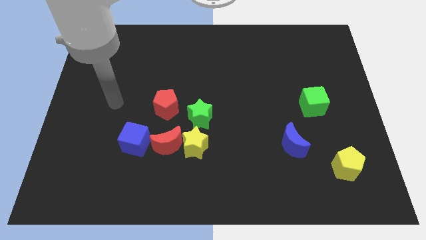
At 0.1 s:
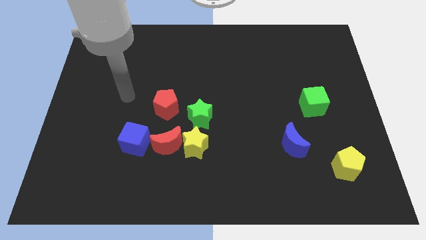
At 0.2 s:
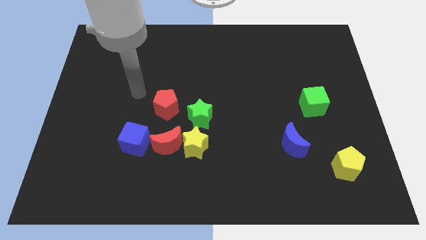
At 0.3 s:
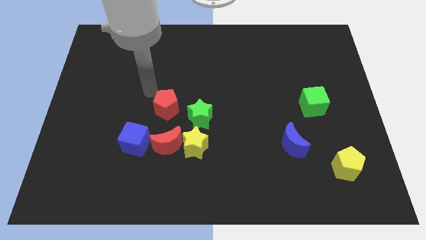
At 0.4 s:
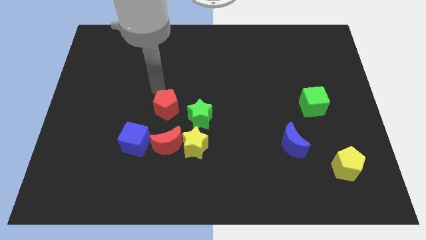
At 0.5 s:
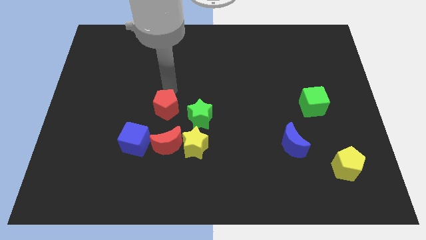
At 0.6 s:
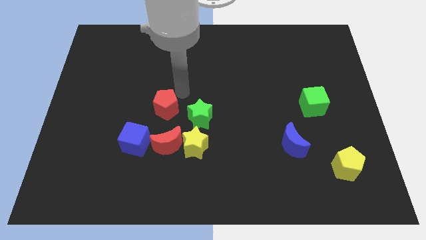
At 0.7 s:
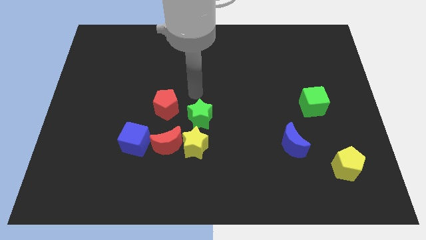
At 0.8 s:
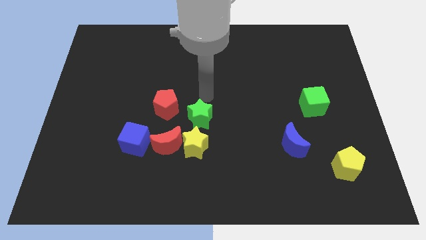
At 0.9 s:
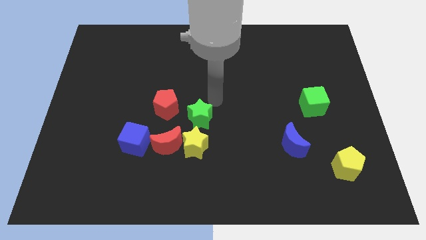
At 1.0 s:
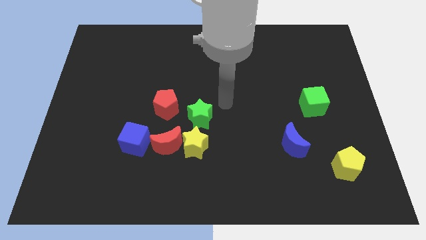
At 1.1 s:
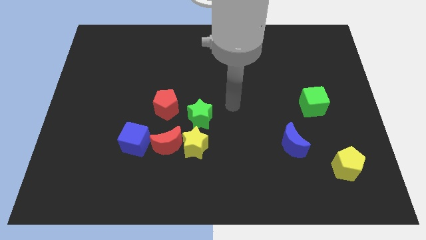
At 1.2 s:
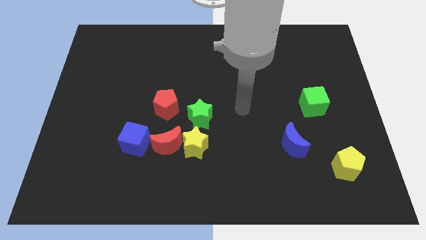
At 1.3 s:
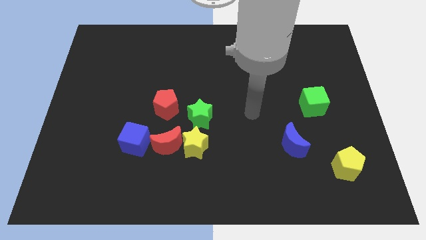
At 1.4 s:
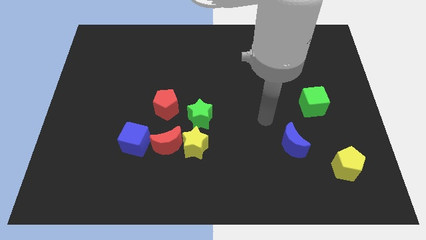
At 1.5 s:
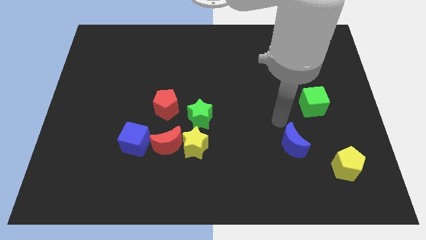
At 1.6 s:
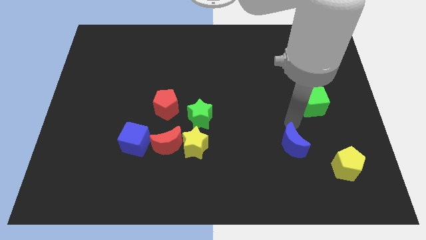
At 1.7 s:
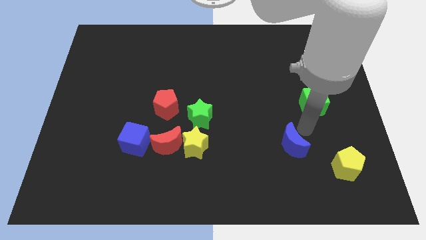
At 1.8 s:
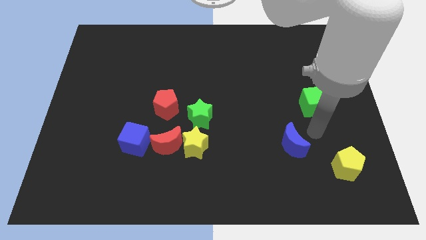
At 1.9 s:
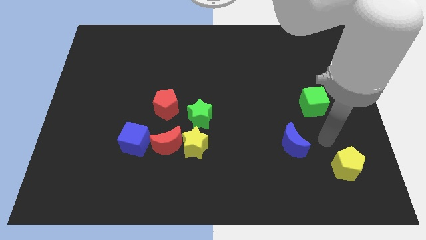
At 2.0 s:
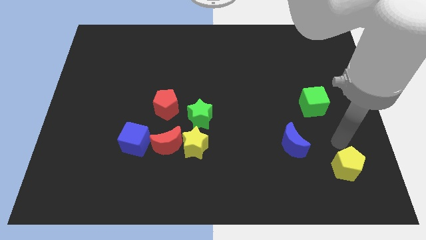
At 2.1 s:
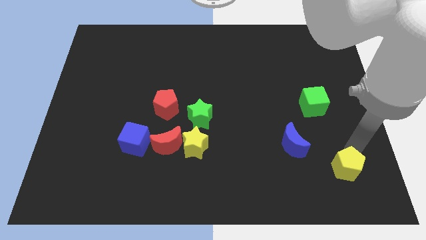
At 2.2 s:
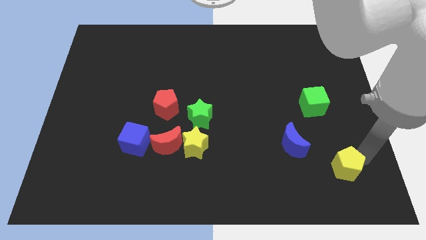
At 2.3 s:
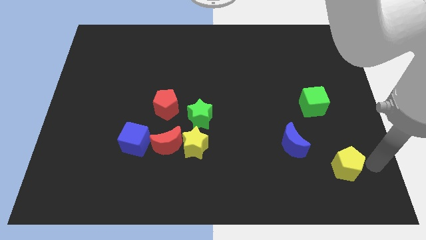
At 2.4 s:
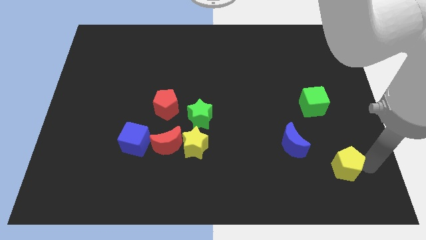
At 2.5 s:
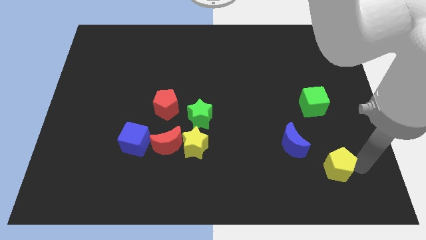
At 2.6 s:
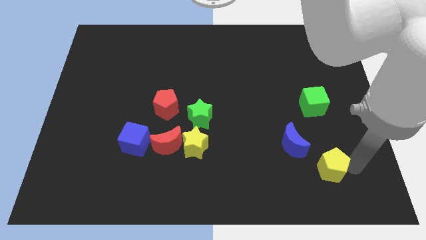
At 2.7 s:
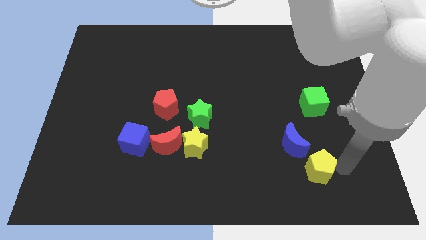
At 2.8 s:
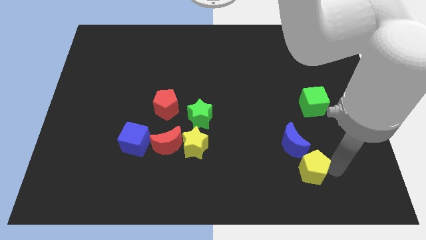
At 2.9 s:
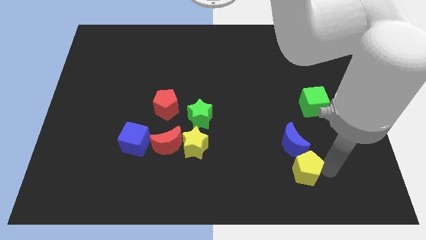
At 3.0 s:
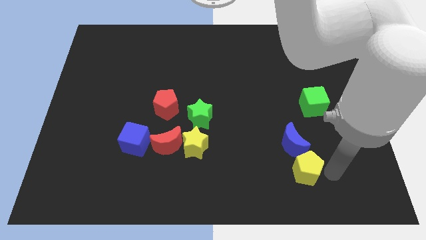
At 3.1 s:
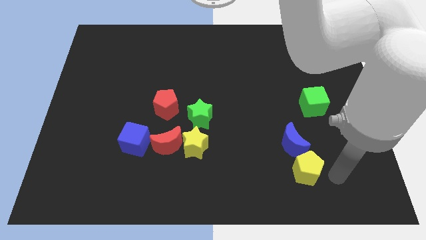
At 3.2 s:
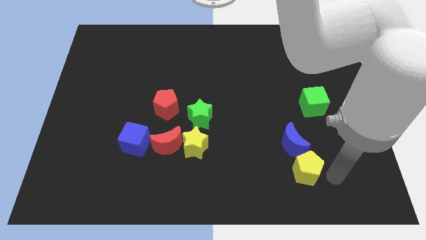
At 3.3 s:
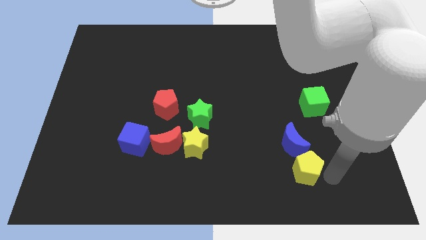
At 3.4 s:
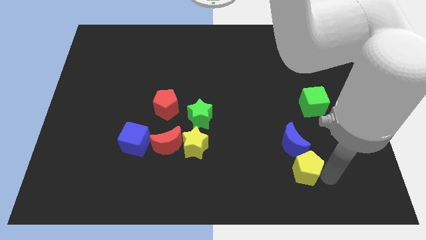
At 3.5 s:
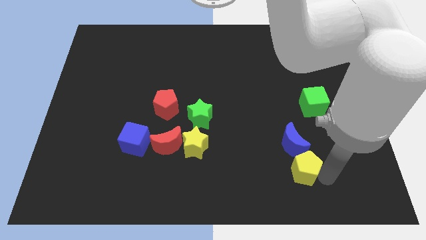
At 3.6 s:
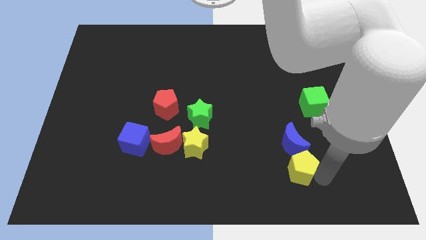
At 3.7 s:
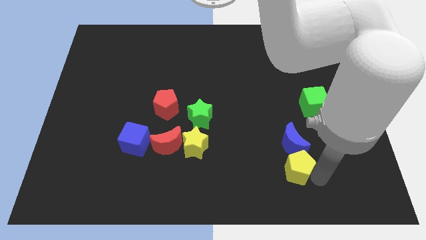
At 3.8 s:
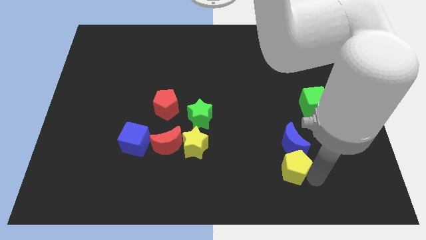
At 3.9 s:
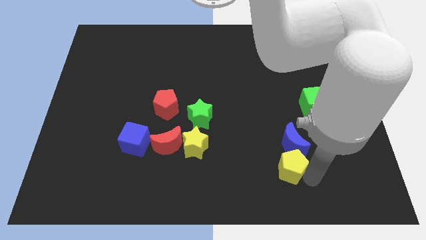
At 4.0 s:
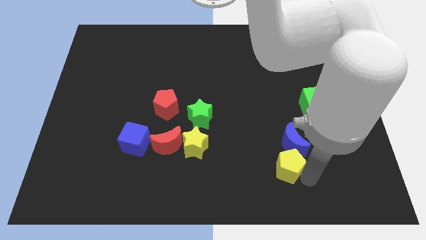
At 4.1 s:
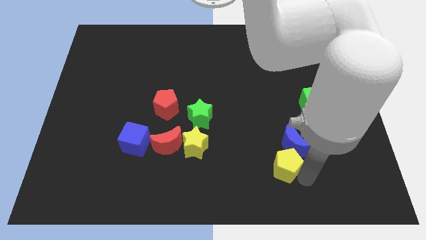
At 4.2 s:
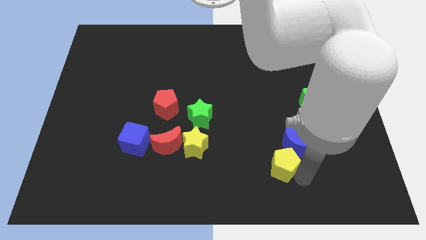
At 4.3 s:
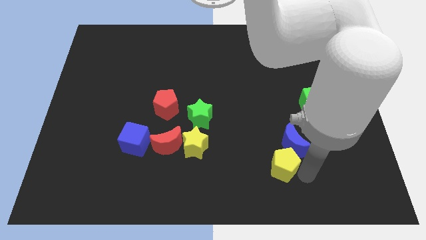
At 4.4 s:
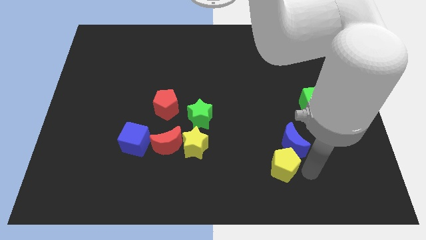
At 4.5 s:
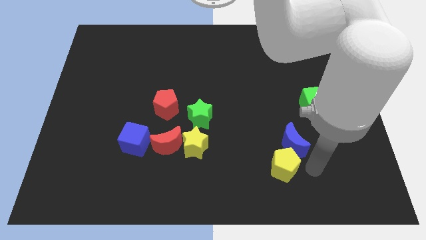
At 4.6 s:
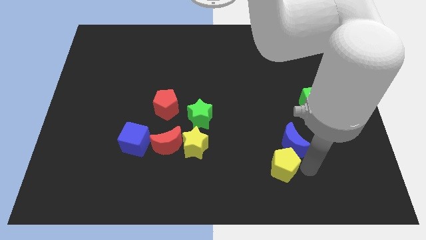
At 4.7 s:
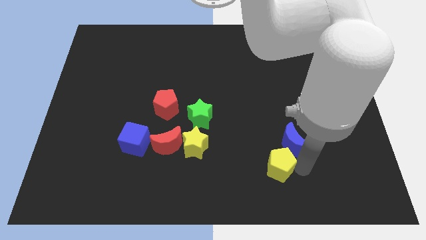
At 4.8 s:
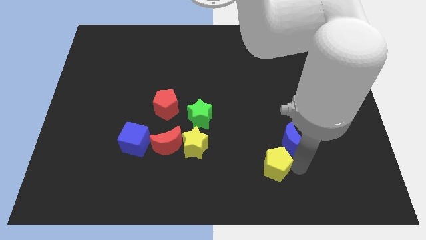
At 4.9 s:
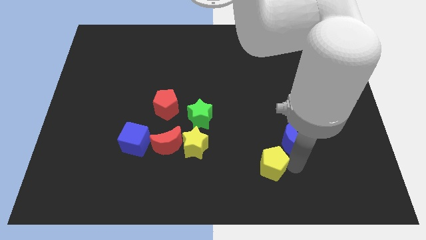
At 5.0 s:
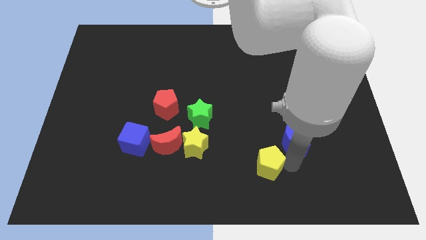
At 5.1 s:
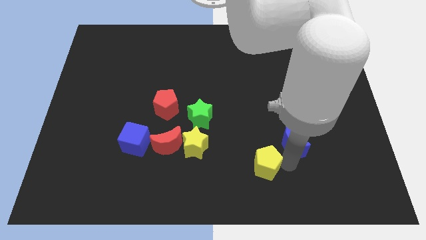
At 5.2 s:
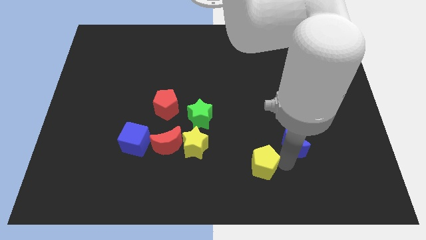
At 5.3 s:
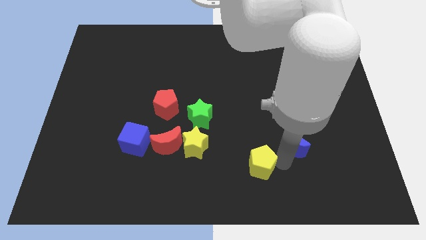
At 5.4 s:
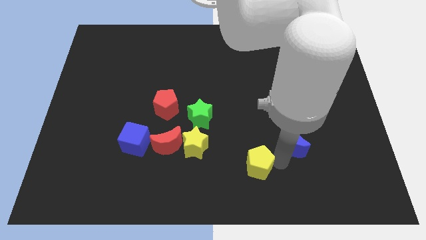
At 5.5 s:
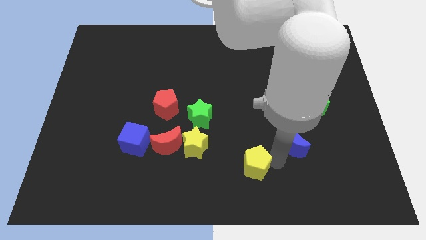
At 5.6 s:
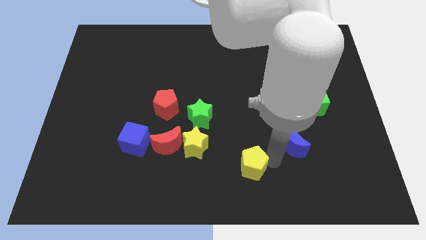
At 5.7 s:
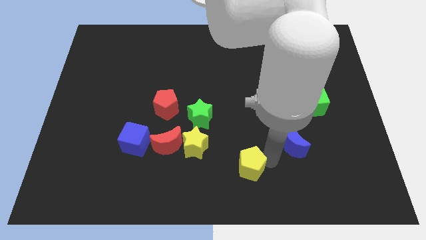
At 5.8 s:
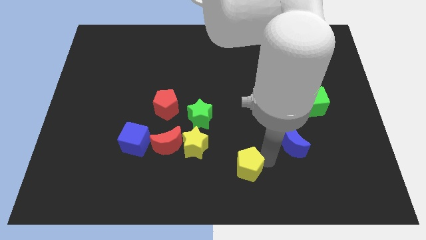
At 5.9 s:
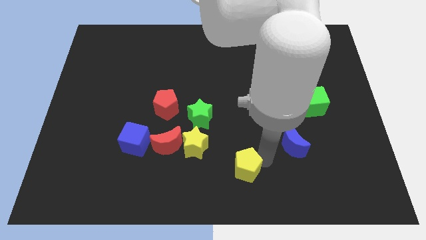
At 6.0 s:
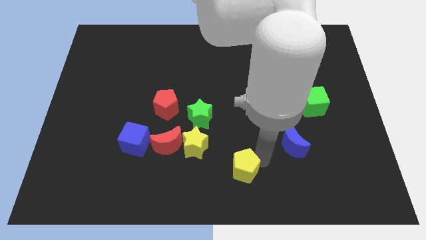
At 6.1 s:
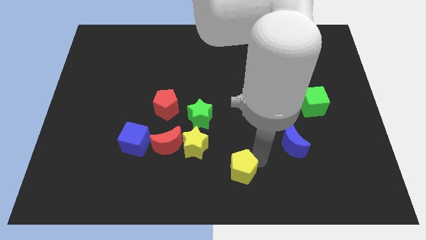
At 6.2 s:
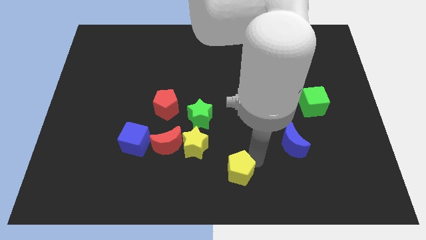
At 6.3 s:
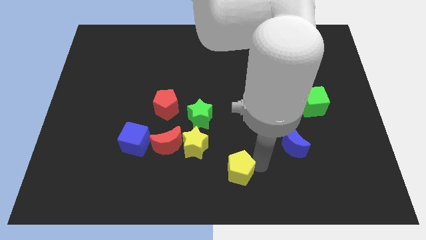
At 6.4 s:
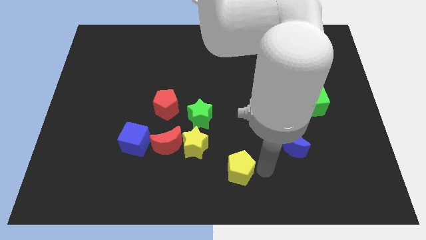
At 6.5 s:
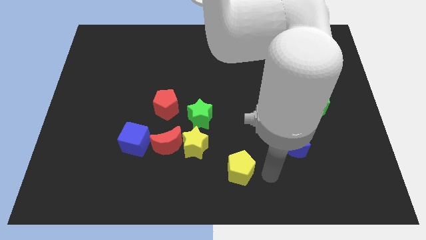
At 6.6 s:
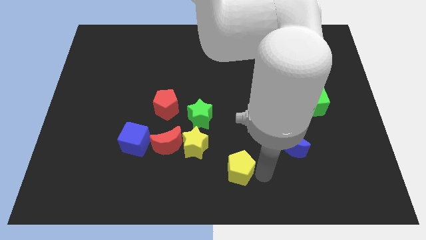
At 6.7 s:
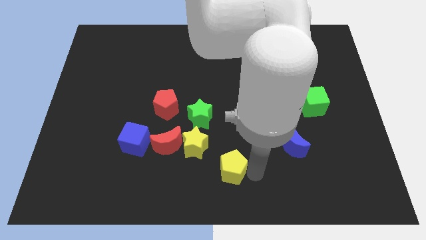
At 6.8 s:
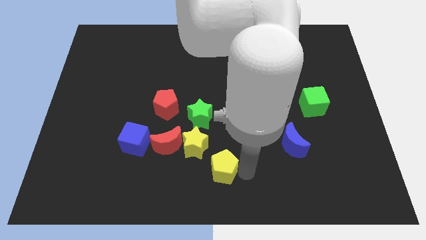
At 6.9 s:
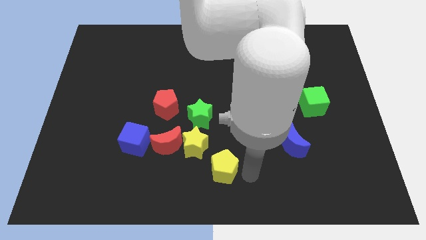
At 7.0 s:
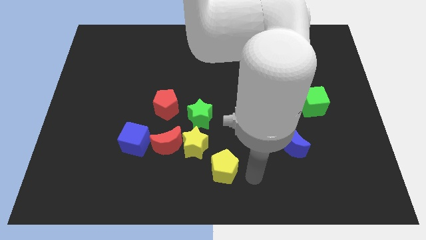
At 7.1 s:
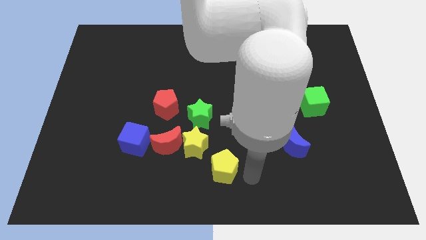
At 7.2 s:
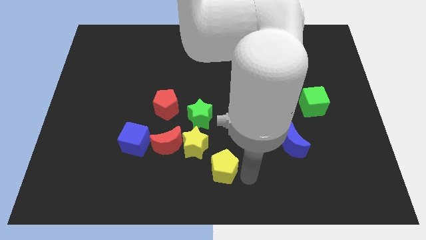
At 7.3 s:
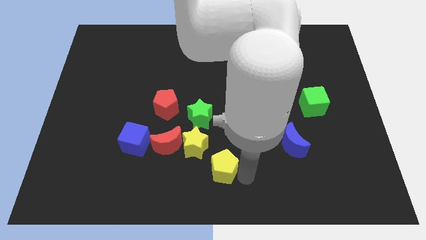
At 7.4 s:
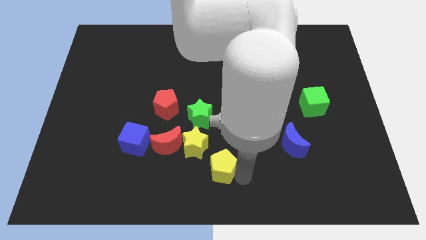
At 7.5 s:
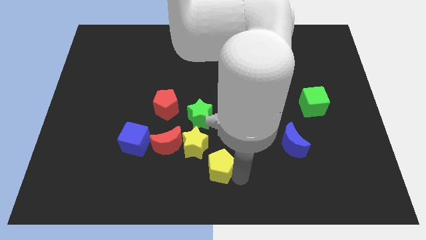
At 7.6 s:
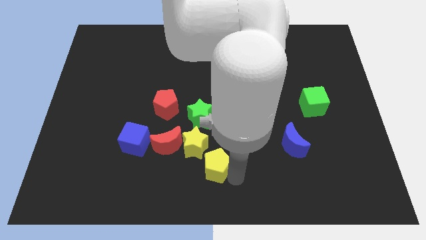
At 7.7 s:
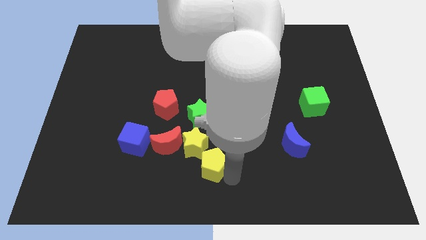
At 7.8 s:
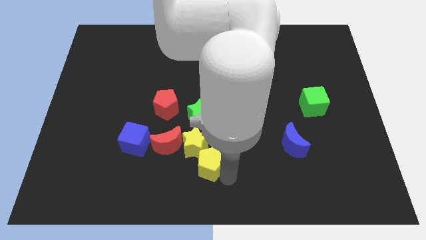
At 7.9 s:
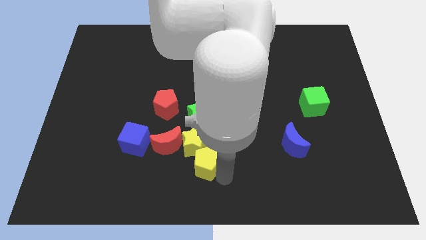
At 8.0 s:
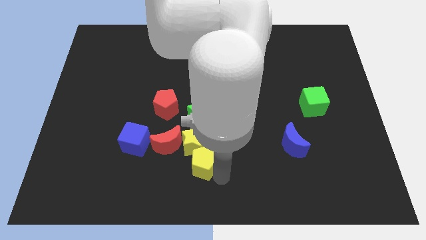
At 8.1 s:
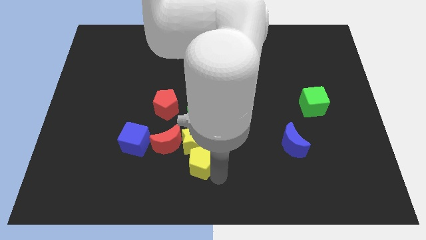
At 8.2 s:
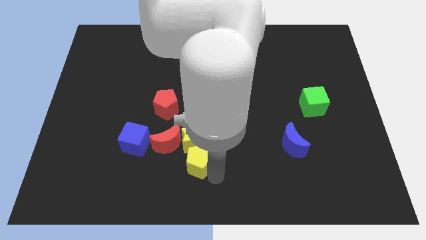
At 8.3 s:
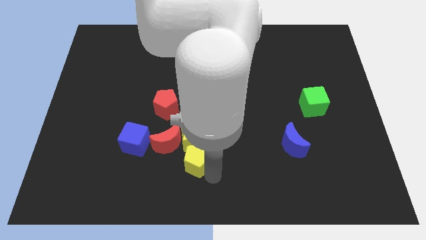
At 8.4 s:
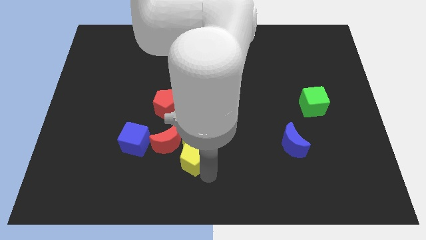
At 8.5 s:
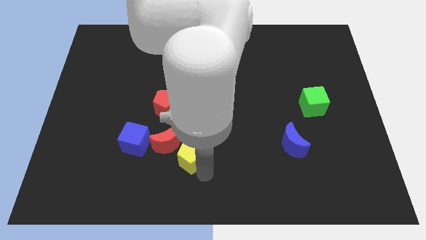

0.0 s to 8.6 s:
move the yellow pentagon to the red moon
